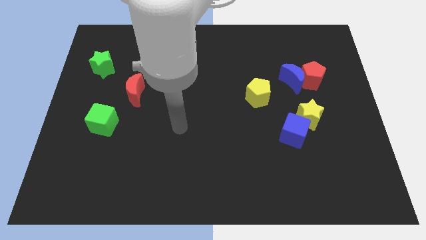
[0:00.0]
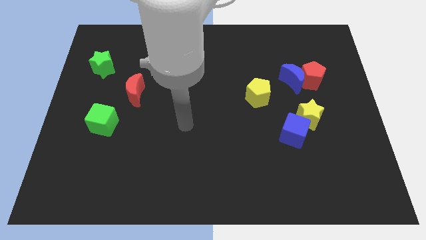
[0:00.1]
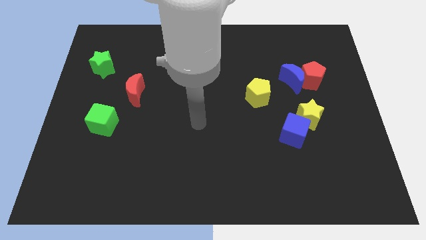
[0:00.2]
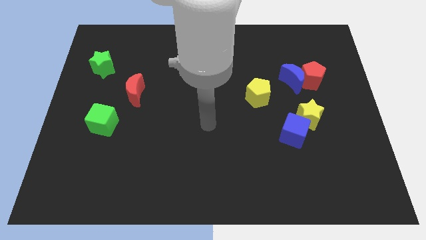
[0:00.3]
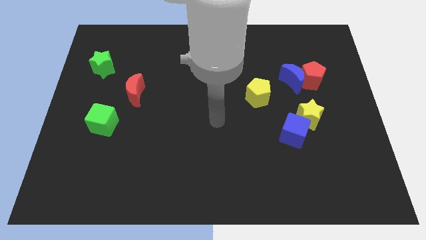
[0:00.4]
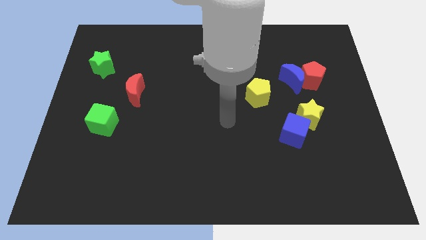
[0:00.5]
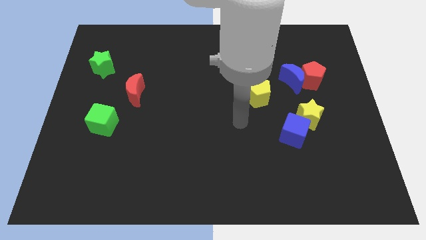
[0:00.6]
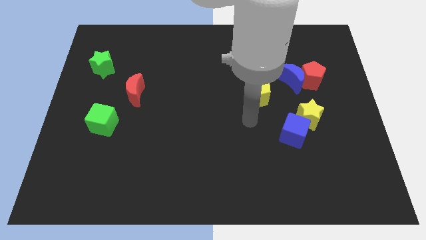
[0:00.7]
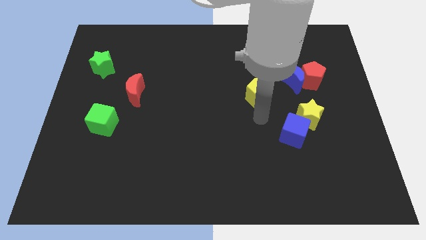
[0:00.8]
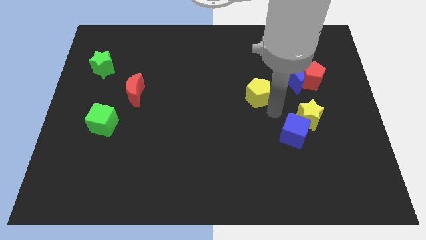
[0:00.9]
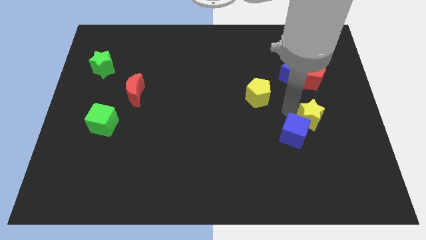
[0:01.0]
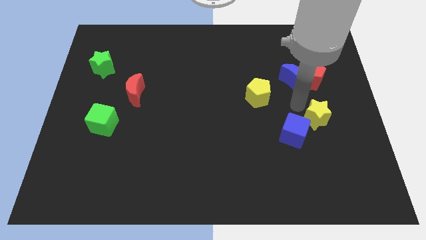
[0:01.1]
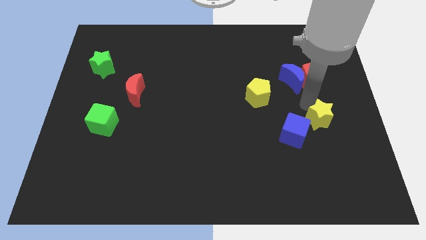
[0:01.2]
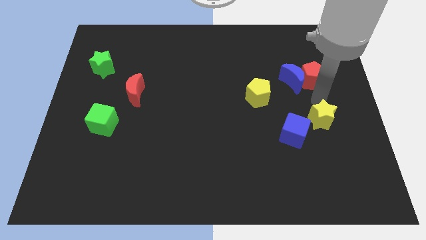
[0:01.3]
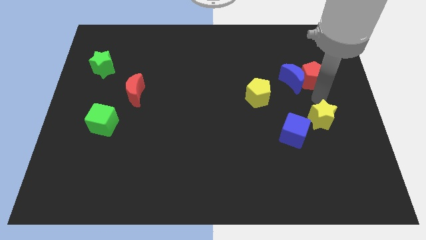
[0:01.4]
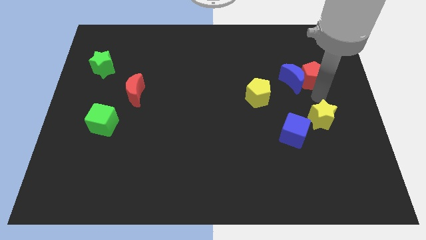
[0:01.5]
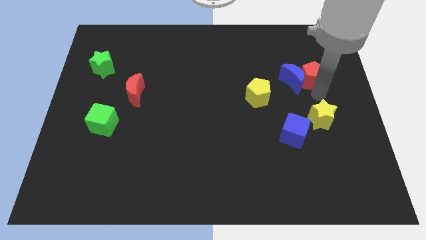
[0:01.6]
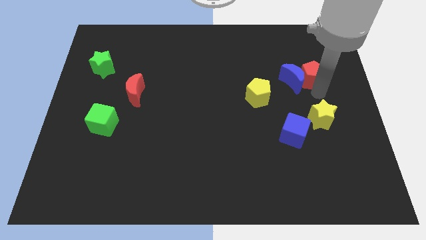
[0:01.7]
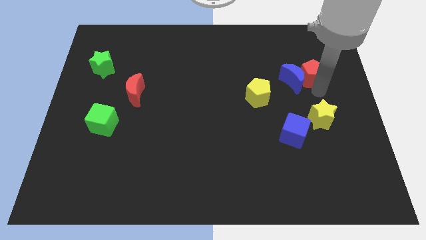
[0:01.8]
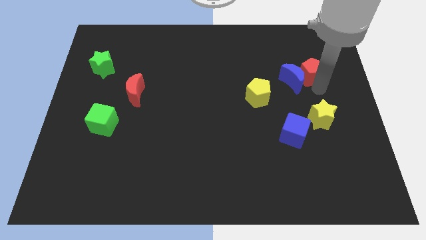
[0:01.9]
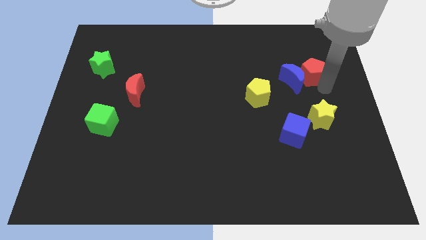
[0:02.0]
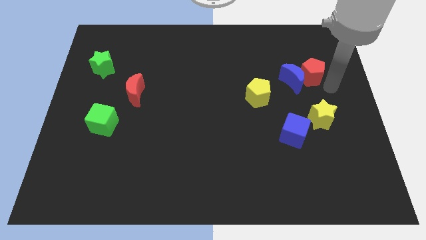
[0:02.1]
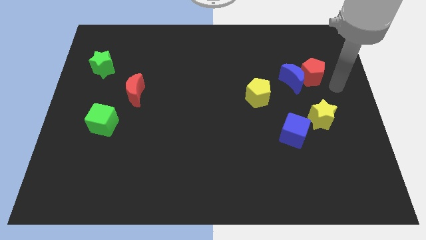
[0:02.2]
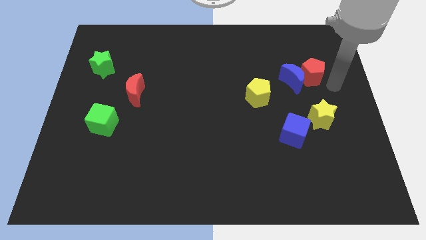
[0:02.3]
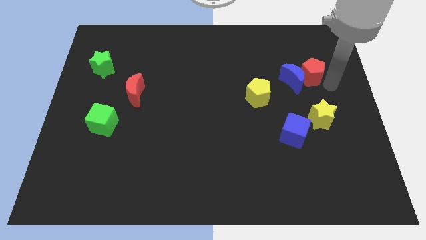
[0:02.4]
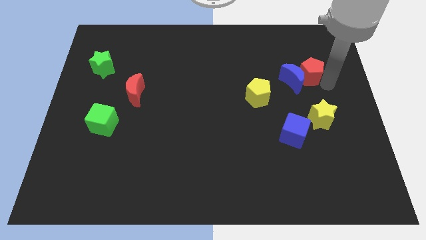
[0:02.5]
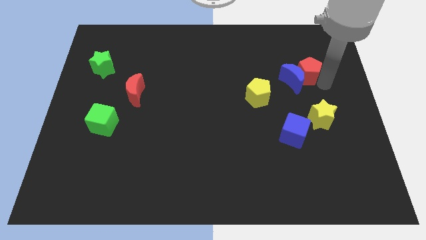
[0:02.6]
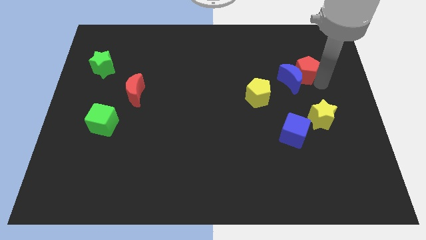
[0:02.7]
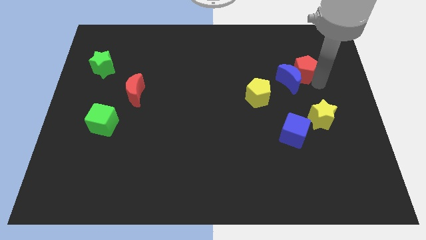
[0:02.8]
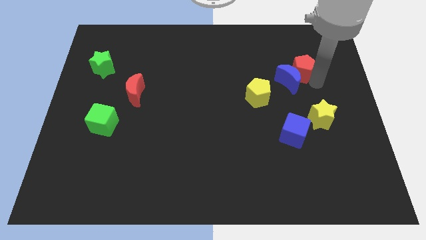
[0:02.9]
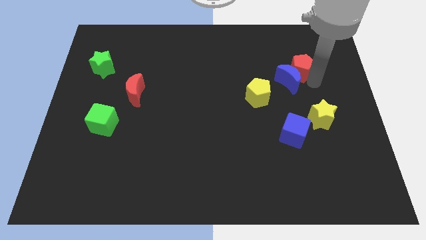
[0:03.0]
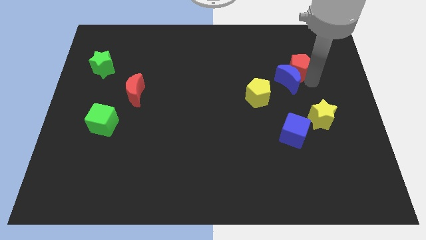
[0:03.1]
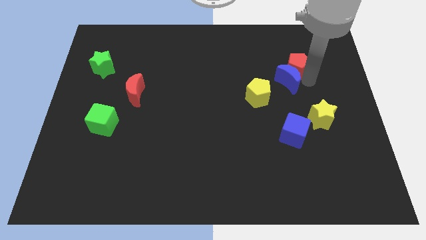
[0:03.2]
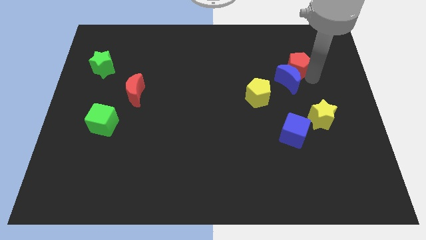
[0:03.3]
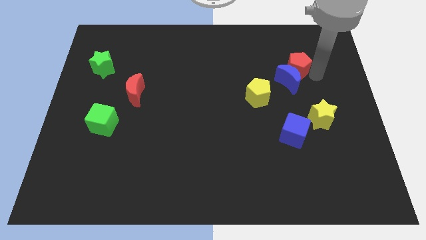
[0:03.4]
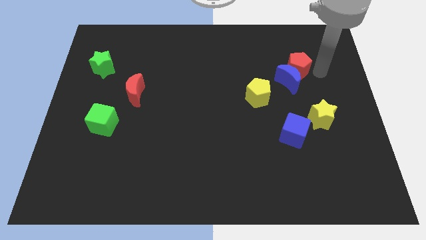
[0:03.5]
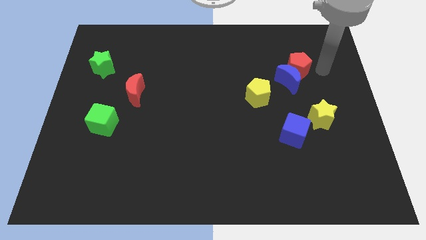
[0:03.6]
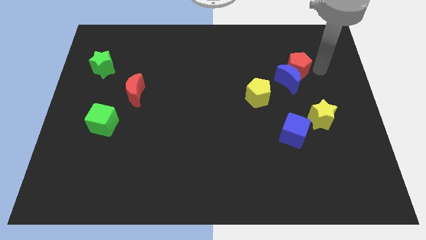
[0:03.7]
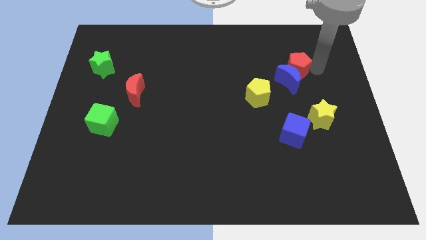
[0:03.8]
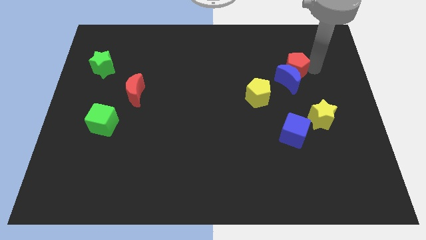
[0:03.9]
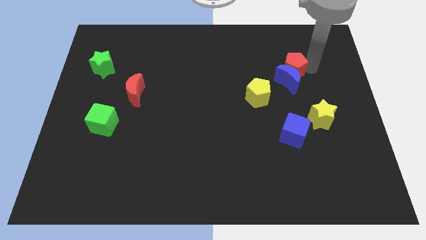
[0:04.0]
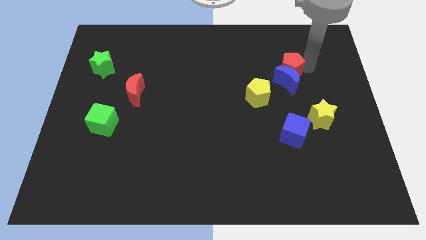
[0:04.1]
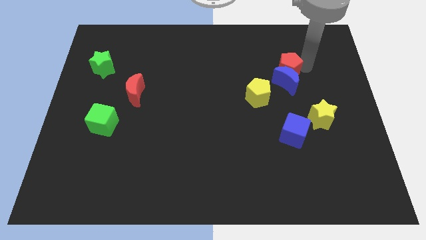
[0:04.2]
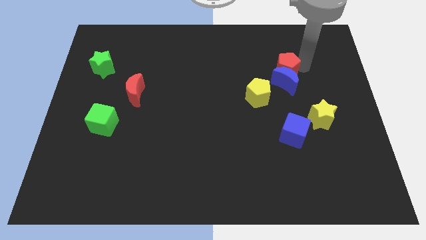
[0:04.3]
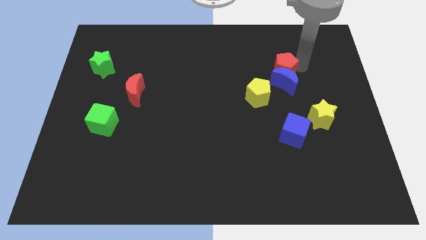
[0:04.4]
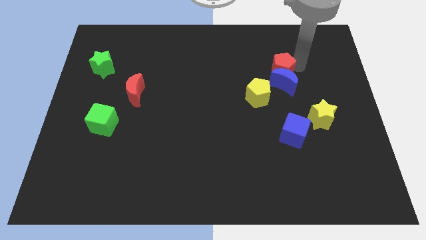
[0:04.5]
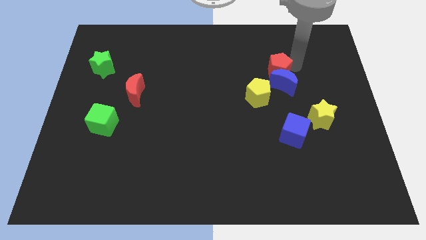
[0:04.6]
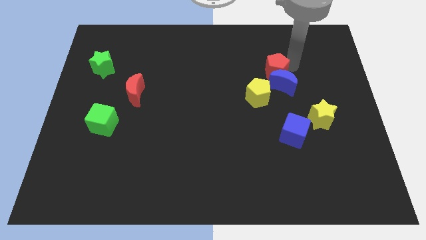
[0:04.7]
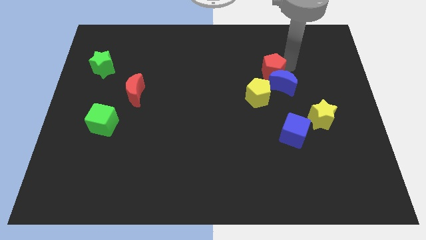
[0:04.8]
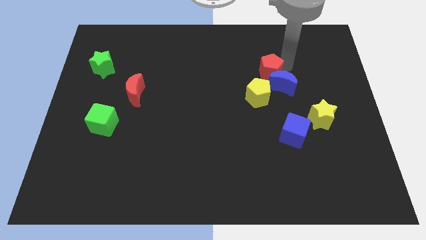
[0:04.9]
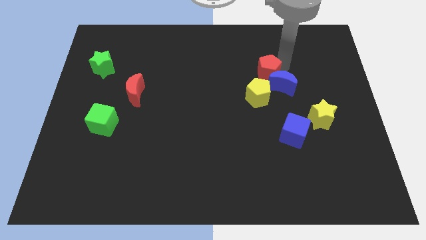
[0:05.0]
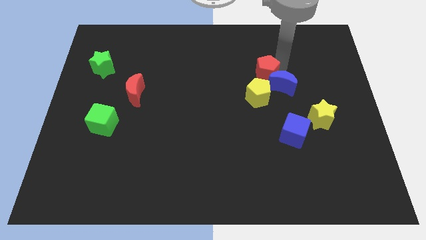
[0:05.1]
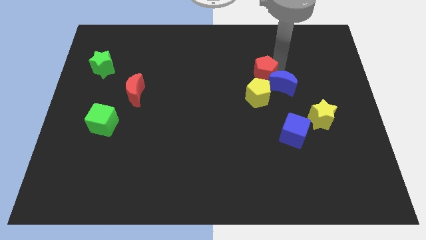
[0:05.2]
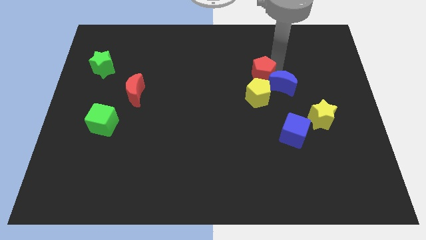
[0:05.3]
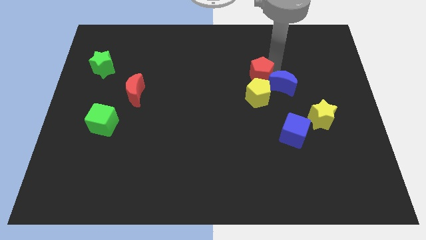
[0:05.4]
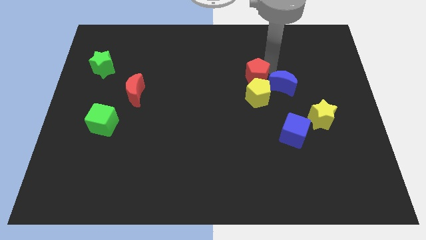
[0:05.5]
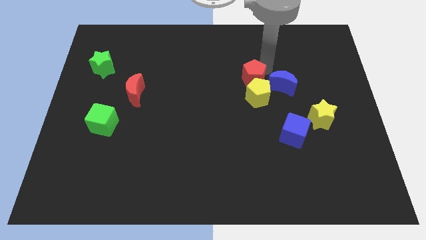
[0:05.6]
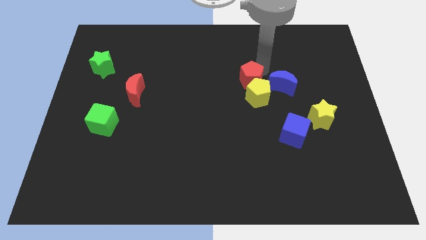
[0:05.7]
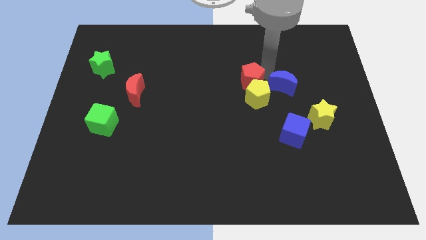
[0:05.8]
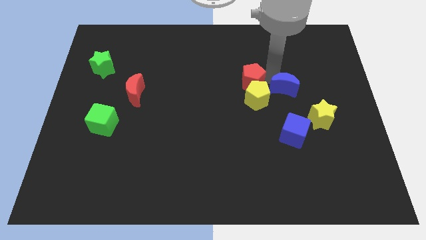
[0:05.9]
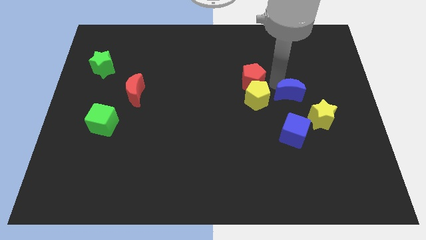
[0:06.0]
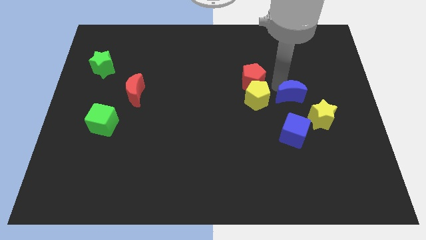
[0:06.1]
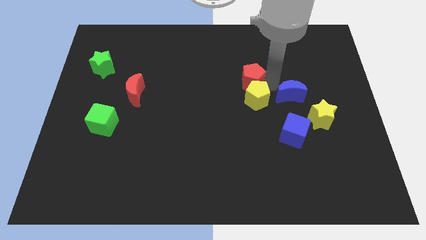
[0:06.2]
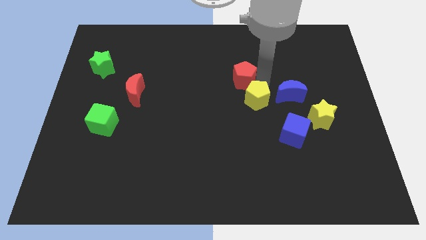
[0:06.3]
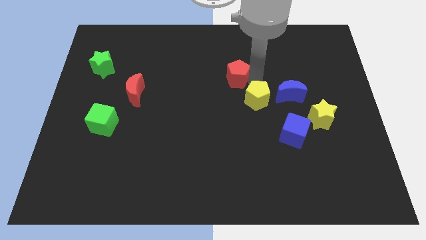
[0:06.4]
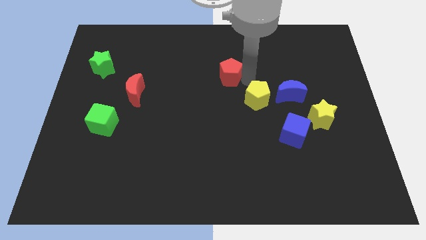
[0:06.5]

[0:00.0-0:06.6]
slide the red pentagon left

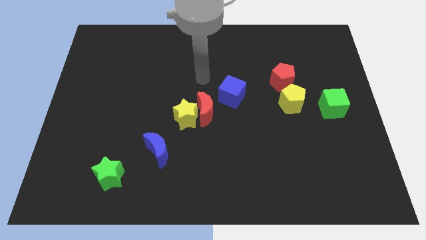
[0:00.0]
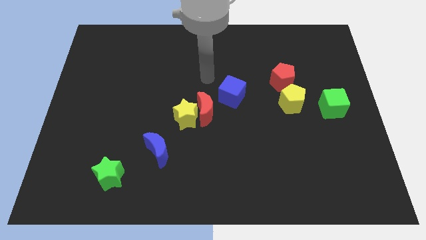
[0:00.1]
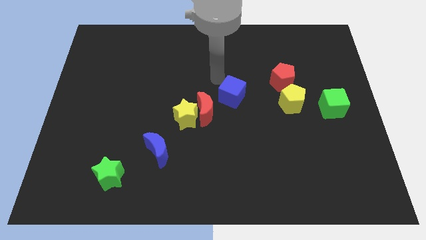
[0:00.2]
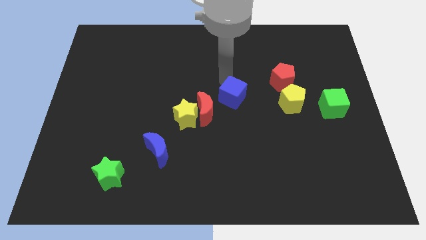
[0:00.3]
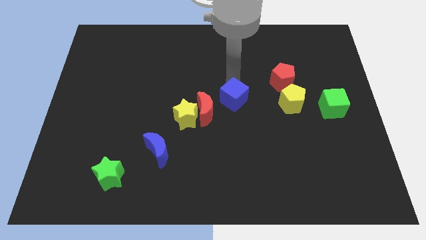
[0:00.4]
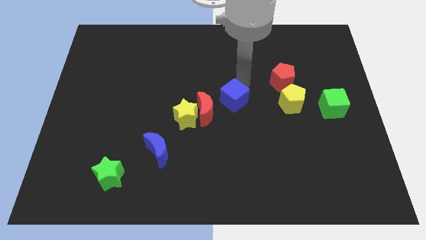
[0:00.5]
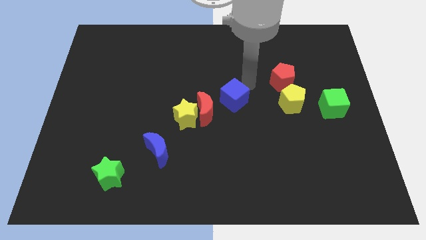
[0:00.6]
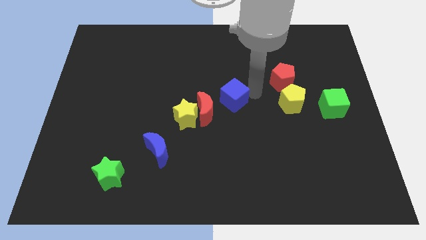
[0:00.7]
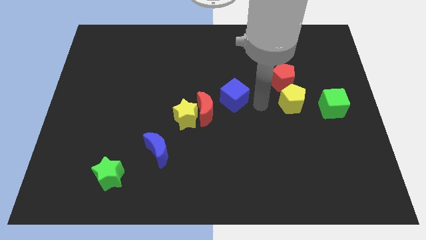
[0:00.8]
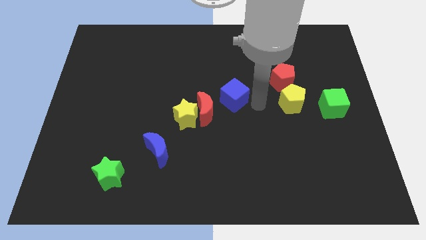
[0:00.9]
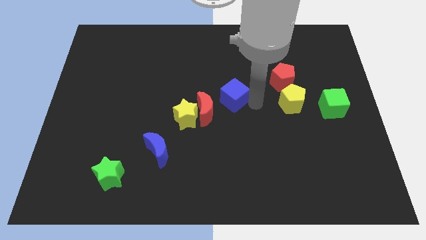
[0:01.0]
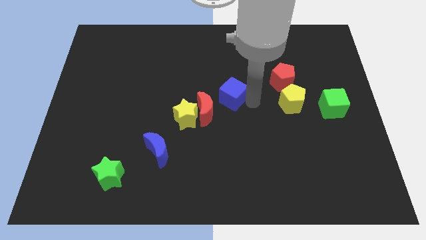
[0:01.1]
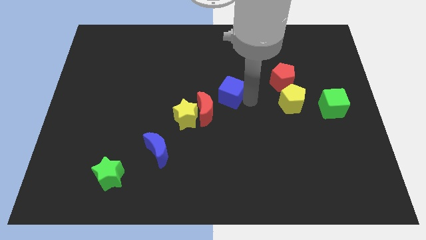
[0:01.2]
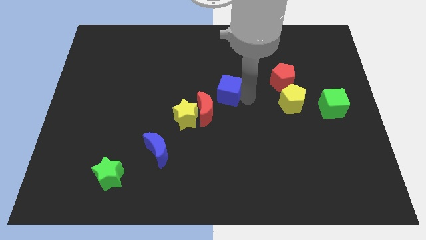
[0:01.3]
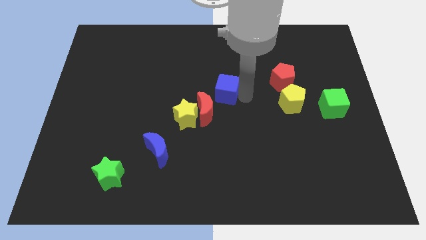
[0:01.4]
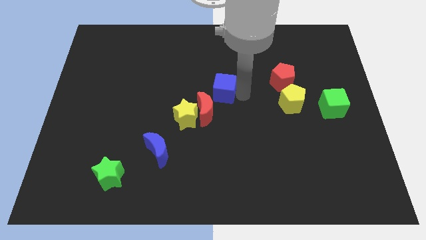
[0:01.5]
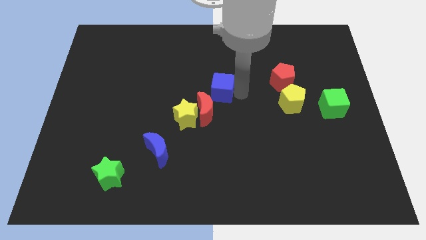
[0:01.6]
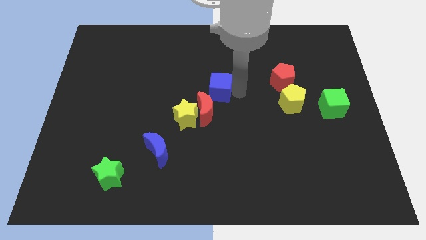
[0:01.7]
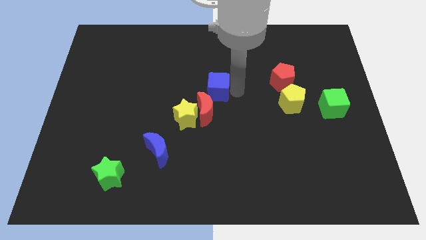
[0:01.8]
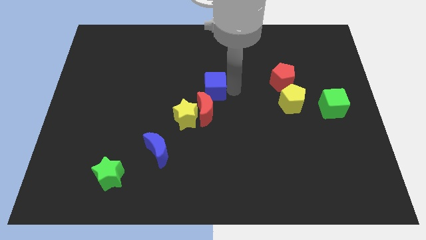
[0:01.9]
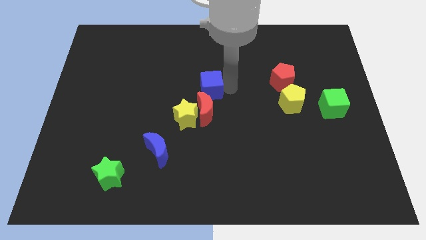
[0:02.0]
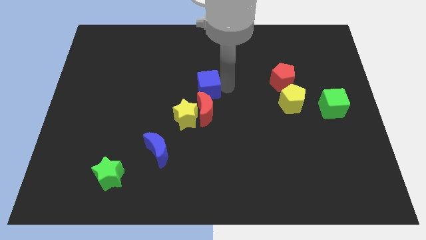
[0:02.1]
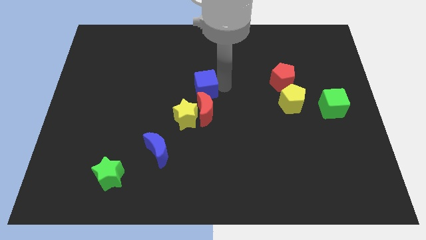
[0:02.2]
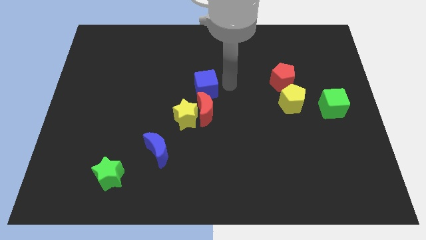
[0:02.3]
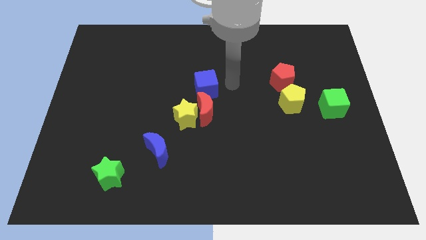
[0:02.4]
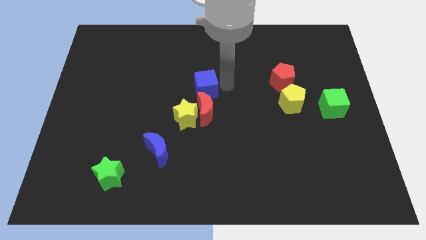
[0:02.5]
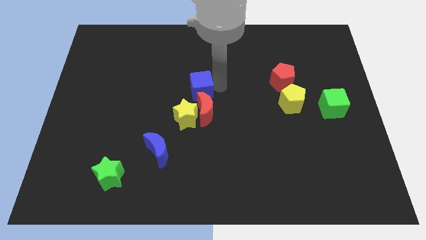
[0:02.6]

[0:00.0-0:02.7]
move the blue cube a bit to the left
